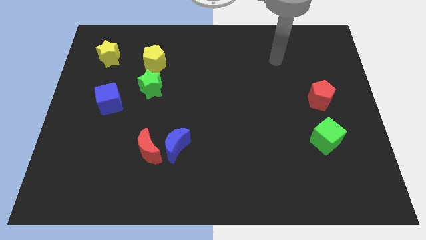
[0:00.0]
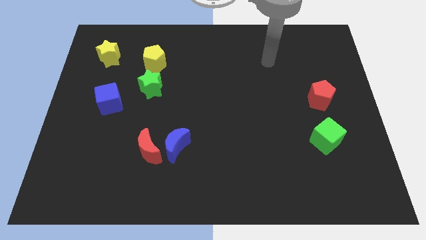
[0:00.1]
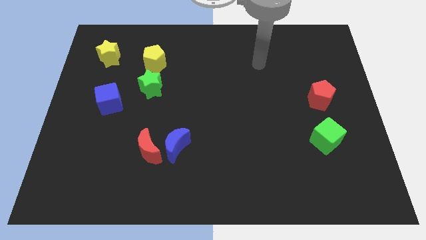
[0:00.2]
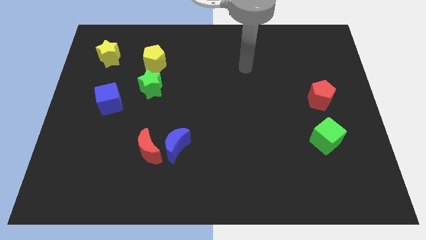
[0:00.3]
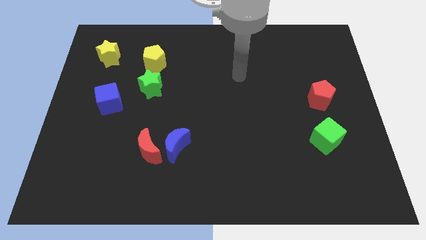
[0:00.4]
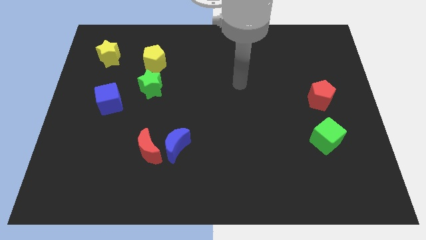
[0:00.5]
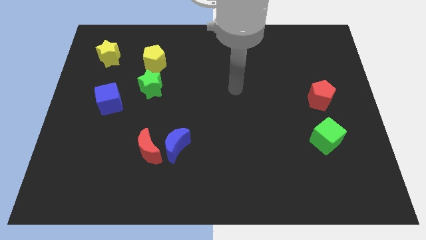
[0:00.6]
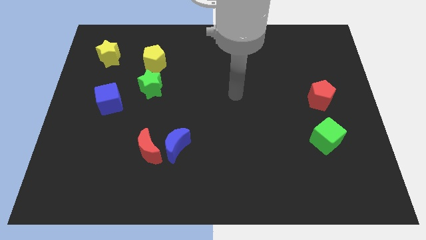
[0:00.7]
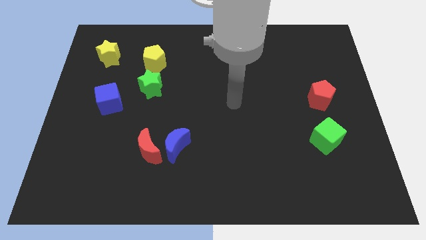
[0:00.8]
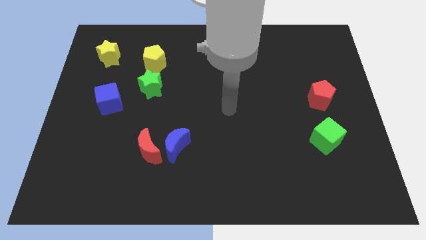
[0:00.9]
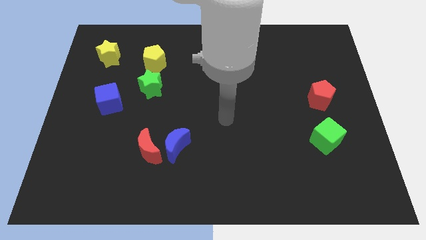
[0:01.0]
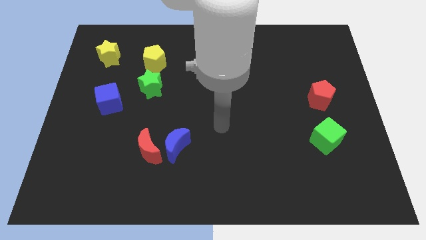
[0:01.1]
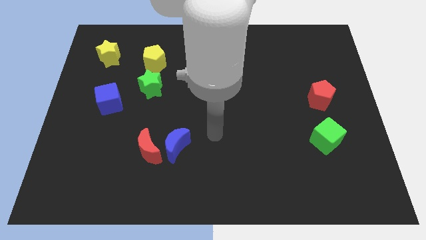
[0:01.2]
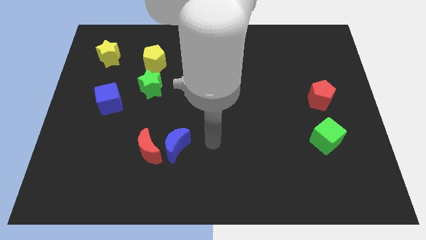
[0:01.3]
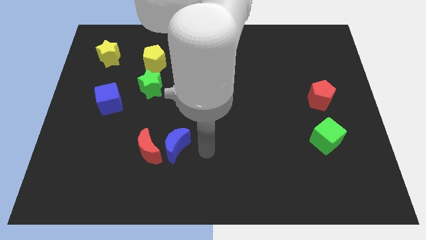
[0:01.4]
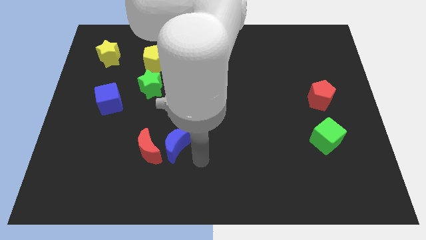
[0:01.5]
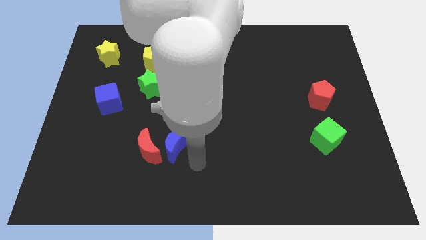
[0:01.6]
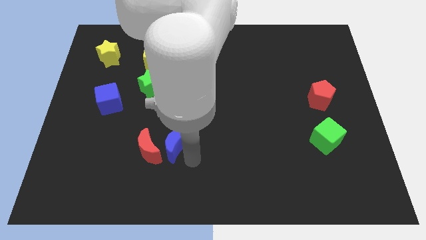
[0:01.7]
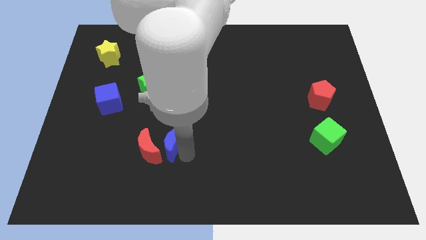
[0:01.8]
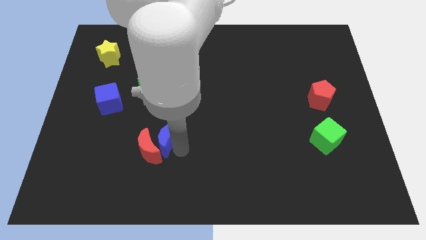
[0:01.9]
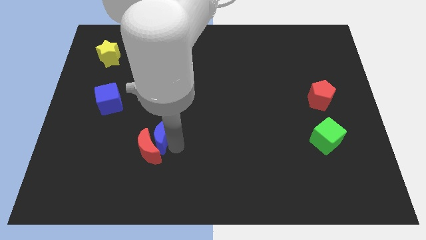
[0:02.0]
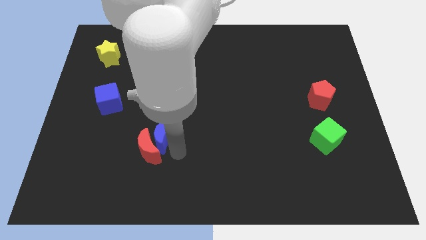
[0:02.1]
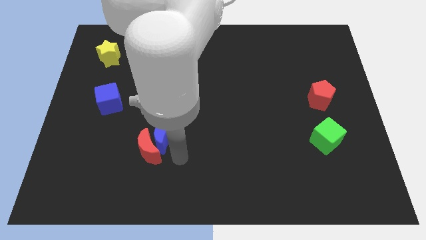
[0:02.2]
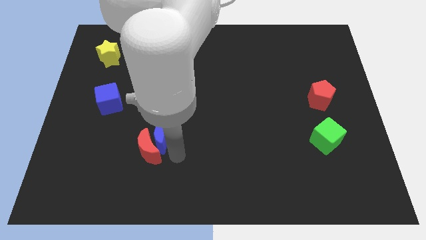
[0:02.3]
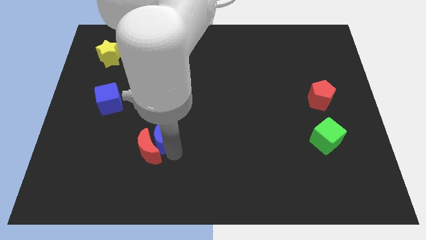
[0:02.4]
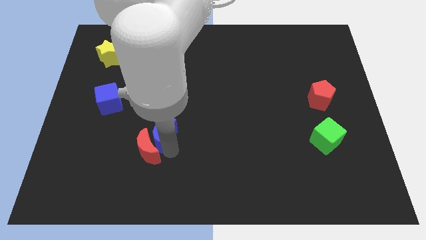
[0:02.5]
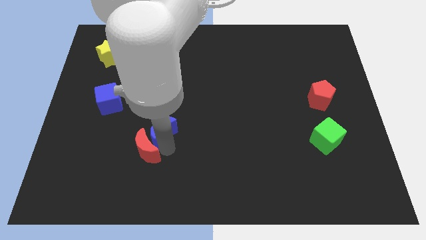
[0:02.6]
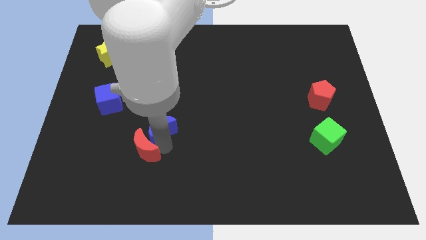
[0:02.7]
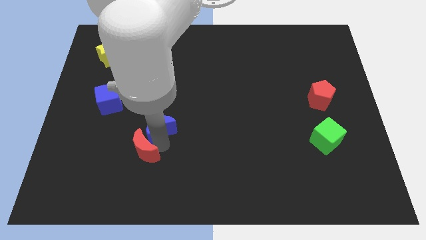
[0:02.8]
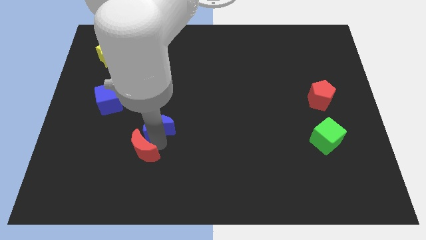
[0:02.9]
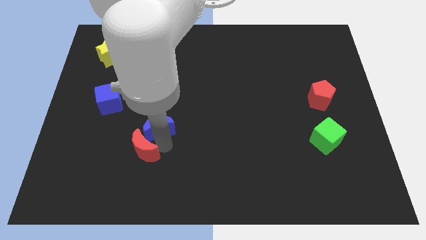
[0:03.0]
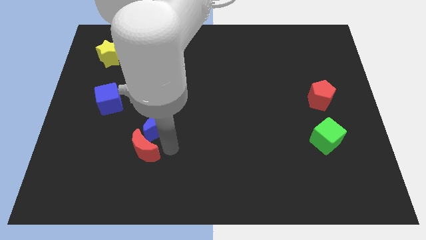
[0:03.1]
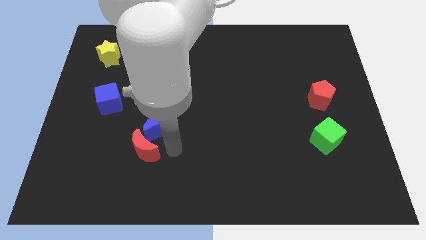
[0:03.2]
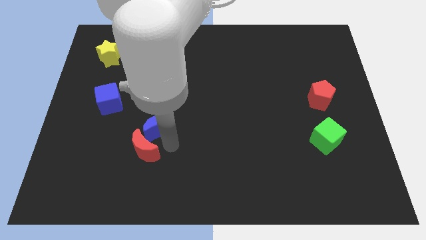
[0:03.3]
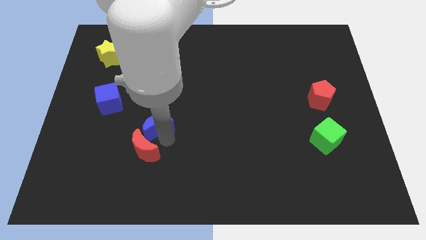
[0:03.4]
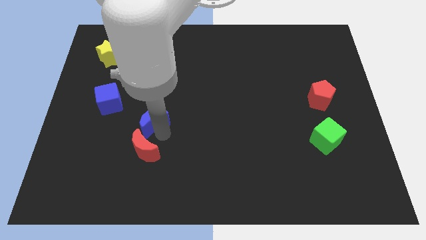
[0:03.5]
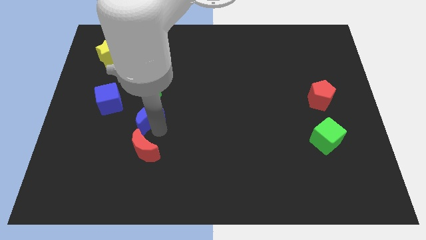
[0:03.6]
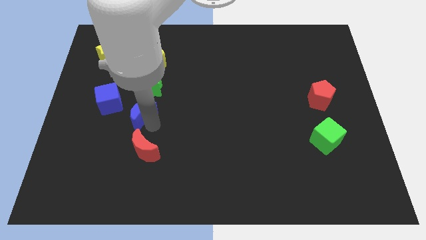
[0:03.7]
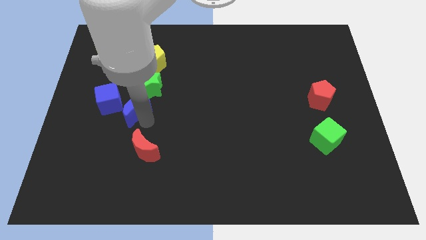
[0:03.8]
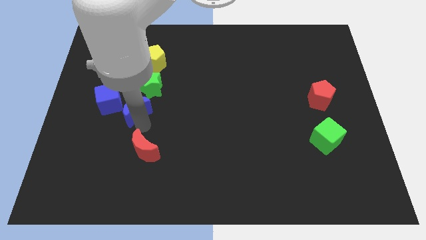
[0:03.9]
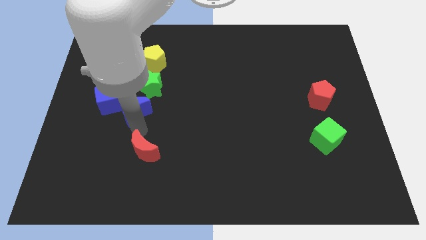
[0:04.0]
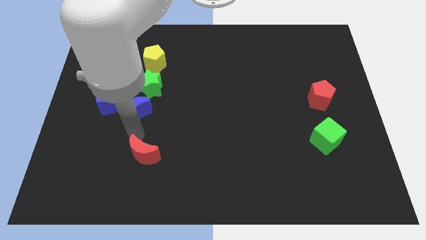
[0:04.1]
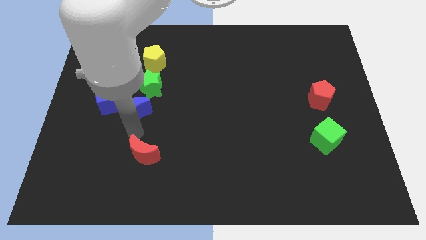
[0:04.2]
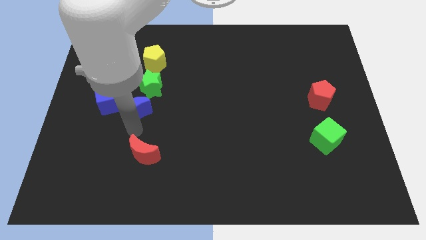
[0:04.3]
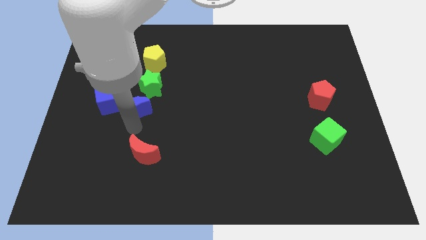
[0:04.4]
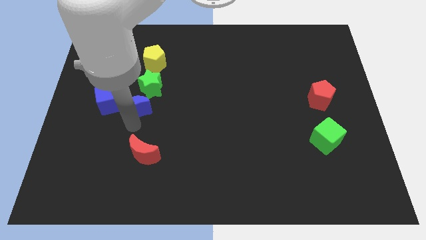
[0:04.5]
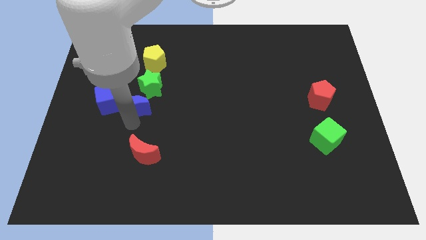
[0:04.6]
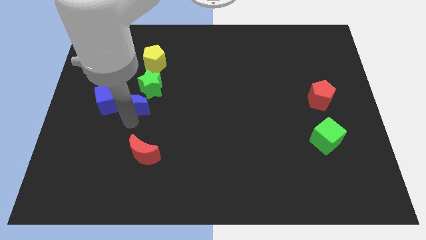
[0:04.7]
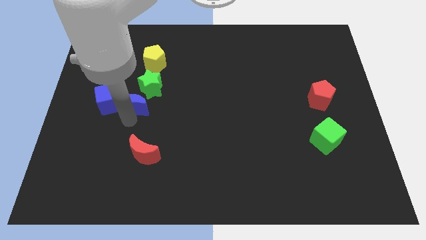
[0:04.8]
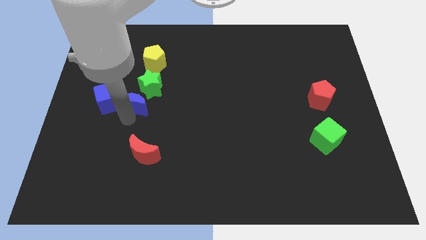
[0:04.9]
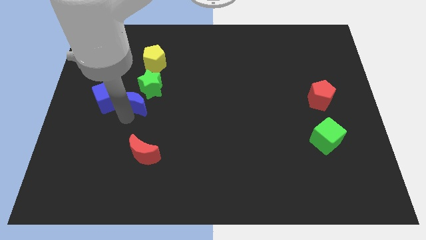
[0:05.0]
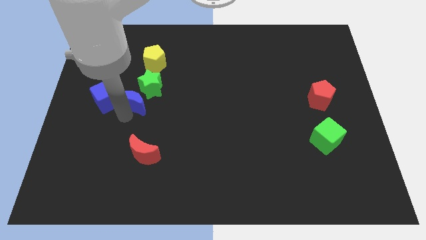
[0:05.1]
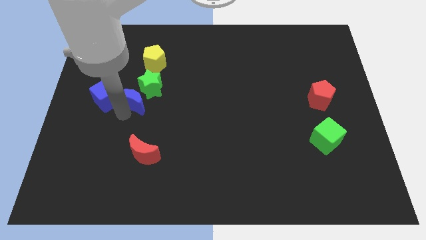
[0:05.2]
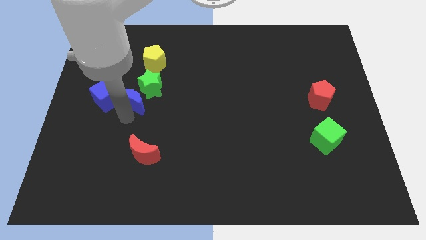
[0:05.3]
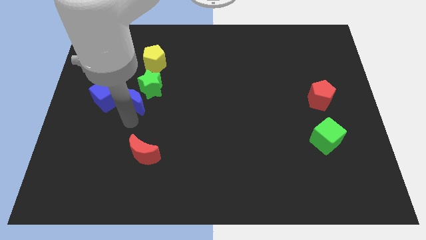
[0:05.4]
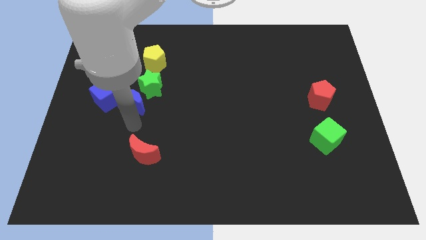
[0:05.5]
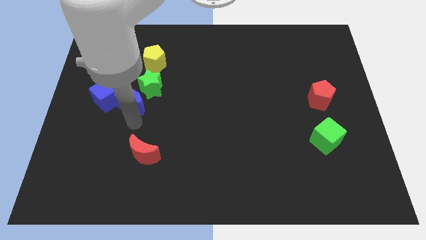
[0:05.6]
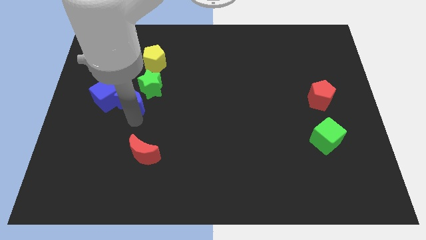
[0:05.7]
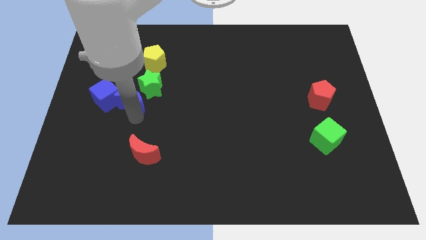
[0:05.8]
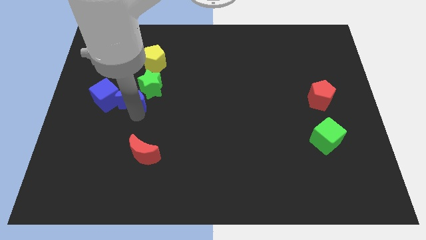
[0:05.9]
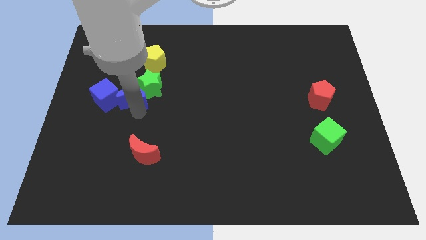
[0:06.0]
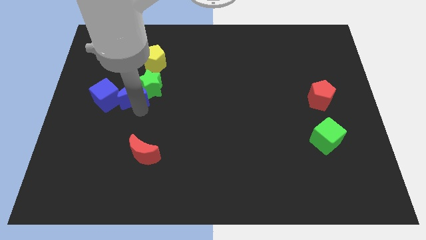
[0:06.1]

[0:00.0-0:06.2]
put the blue moon to the top right of the blue cube

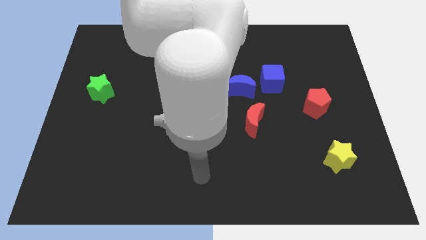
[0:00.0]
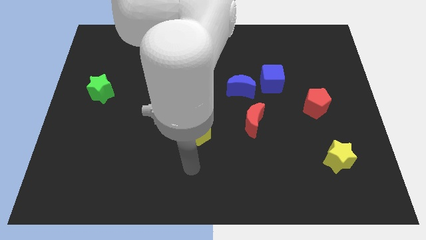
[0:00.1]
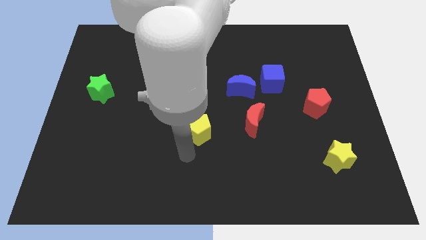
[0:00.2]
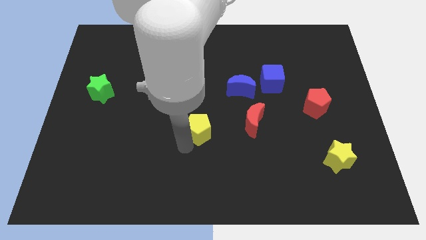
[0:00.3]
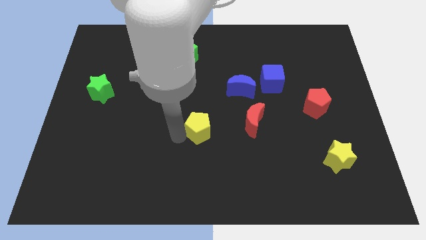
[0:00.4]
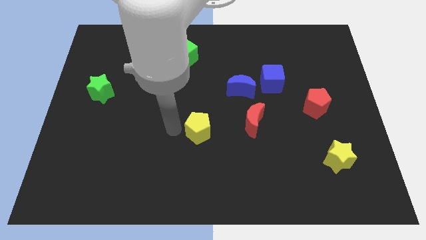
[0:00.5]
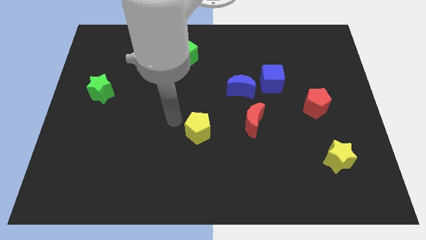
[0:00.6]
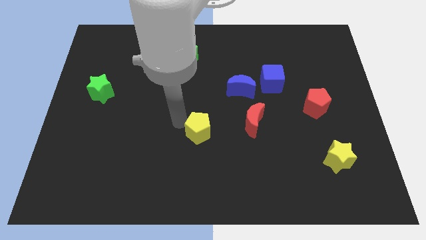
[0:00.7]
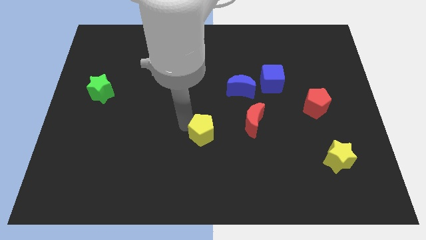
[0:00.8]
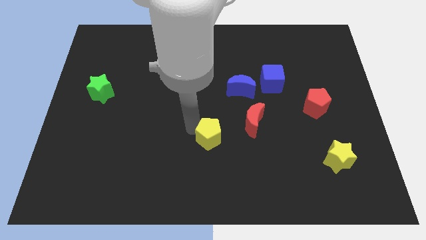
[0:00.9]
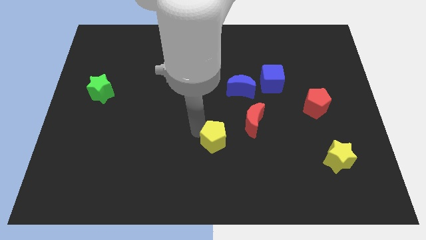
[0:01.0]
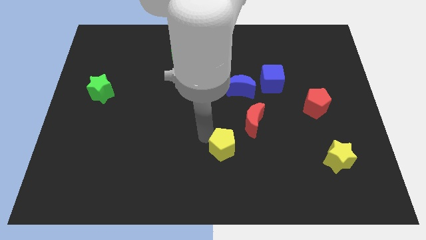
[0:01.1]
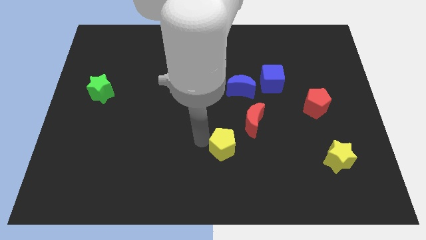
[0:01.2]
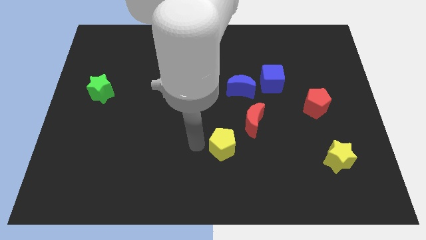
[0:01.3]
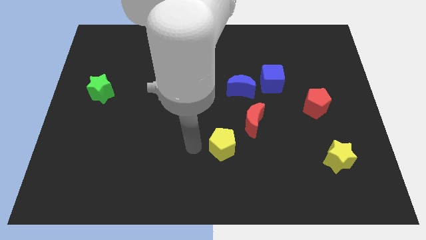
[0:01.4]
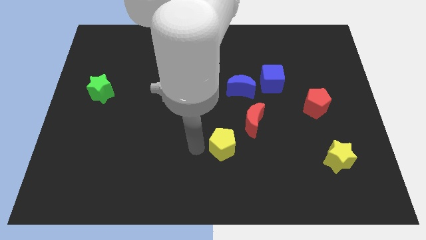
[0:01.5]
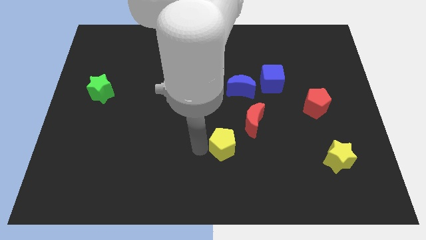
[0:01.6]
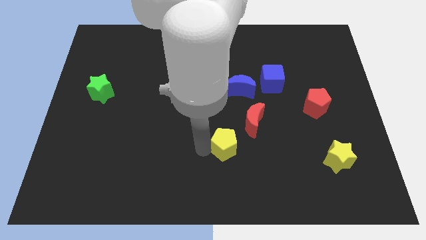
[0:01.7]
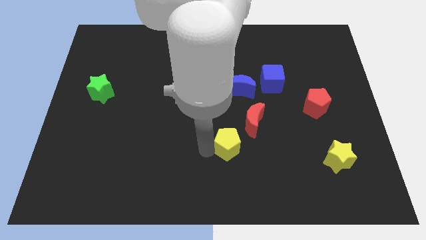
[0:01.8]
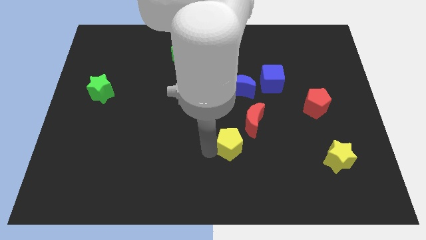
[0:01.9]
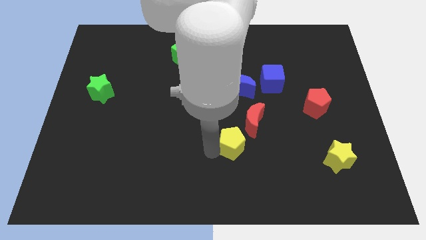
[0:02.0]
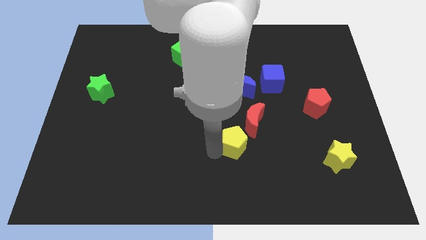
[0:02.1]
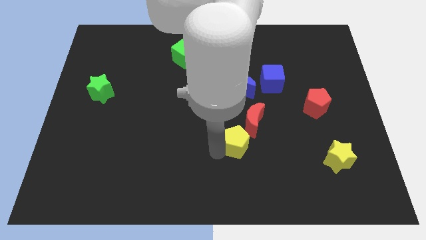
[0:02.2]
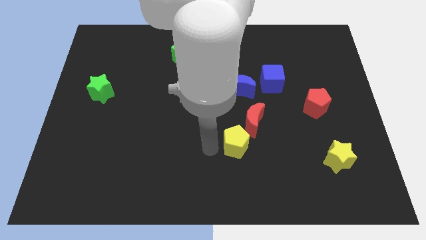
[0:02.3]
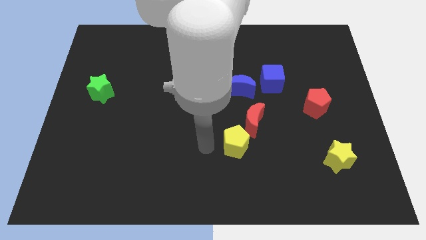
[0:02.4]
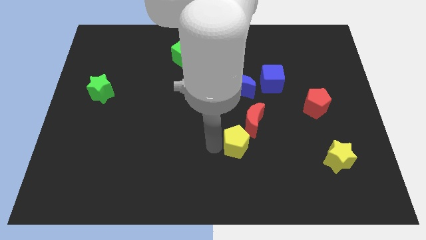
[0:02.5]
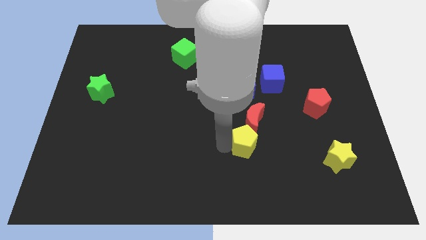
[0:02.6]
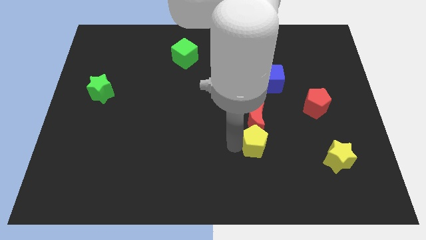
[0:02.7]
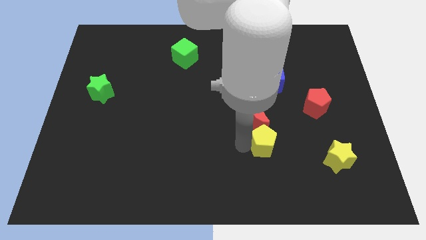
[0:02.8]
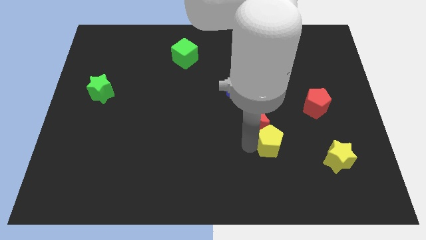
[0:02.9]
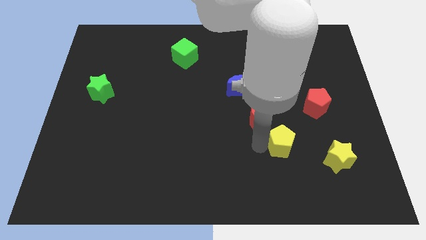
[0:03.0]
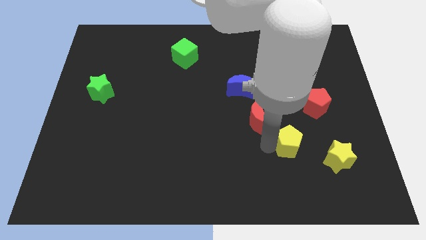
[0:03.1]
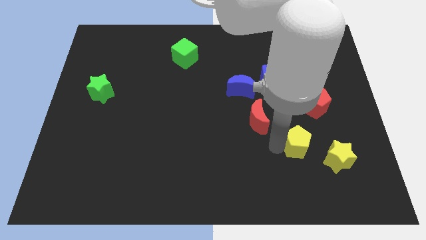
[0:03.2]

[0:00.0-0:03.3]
put the yellow pentagon diagonally up and to the left of the yellow star
